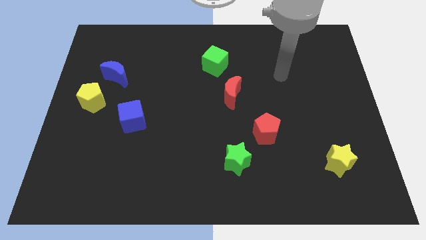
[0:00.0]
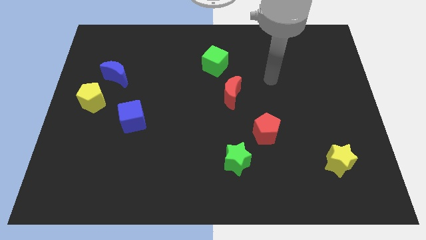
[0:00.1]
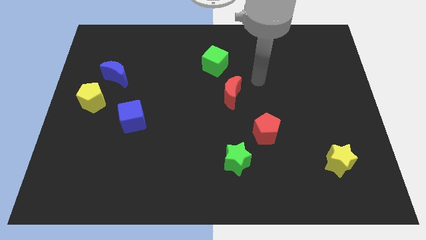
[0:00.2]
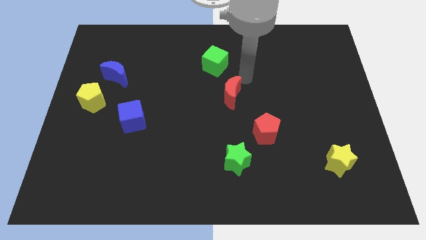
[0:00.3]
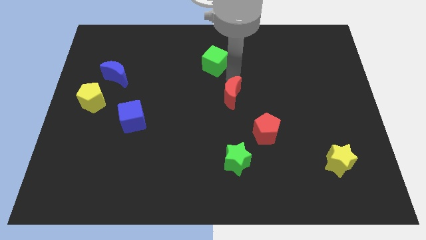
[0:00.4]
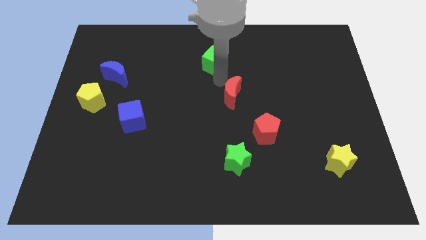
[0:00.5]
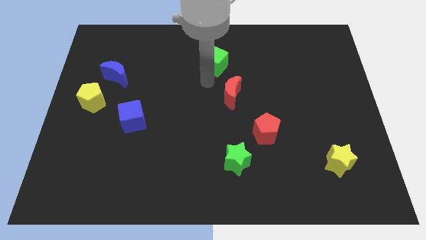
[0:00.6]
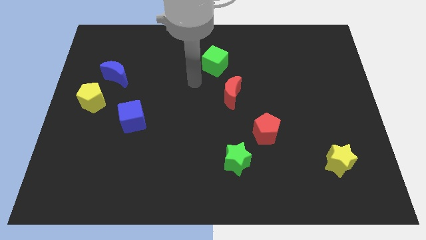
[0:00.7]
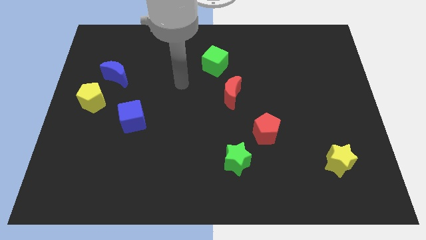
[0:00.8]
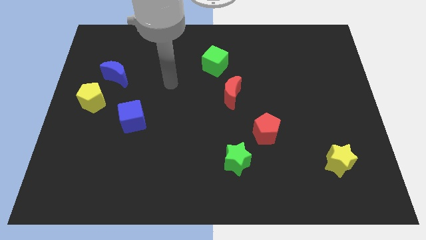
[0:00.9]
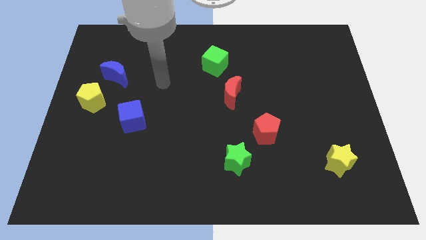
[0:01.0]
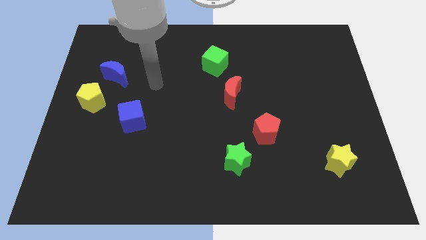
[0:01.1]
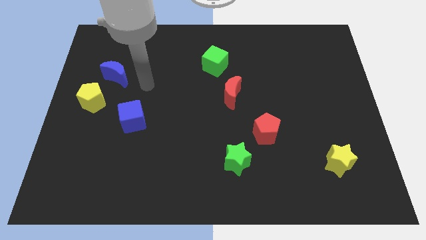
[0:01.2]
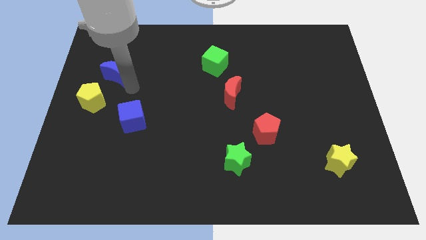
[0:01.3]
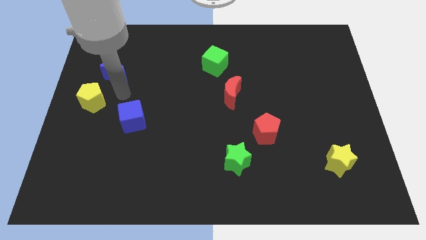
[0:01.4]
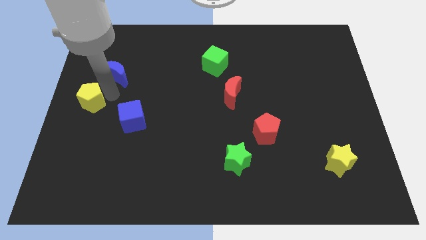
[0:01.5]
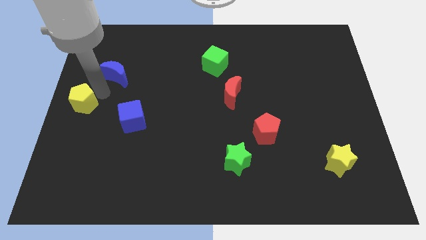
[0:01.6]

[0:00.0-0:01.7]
separate the blue moon from the yellow pentagon

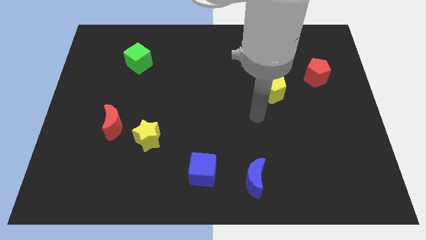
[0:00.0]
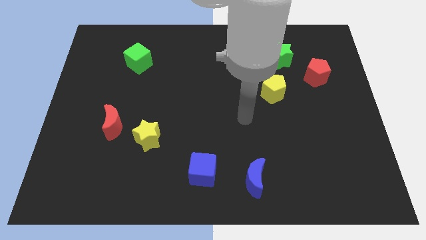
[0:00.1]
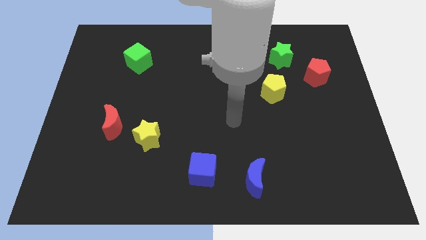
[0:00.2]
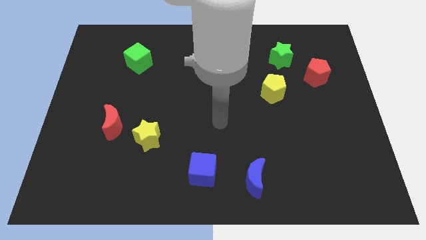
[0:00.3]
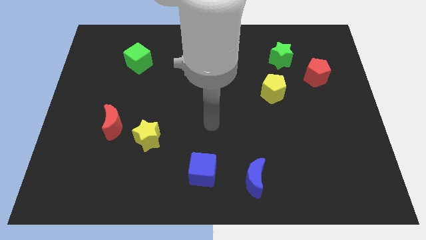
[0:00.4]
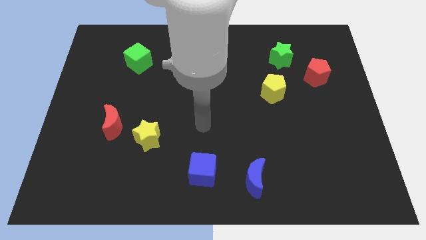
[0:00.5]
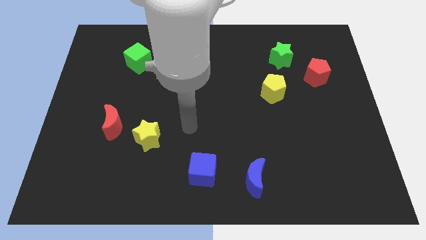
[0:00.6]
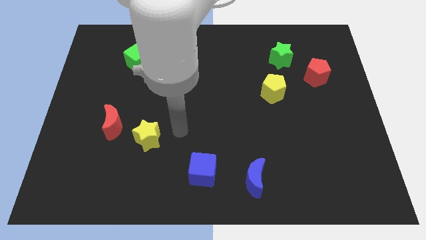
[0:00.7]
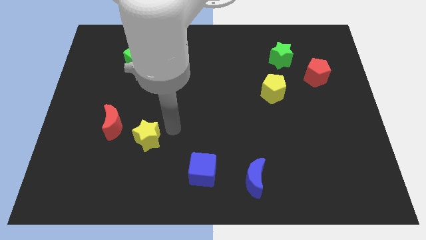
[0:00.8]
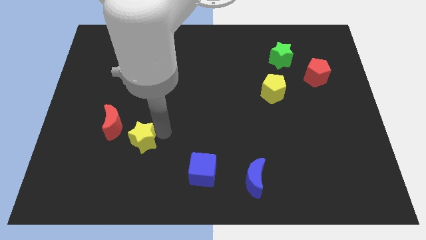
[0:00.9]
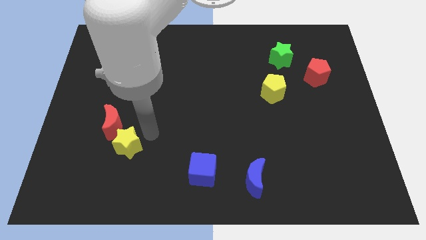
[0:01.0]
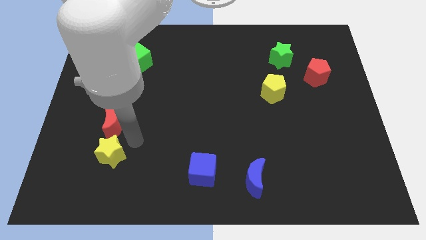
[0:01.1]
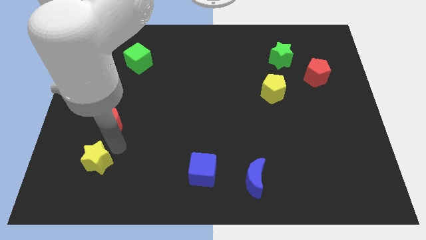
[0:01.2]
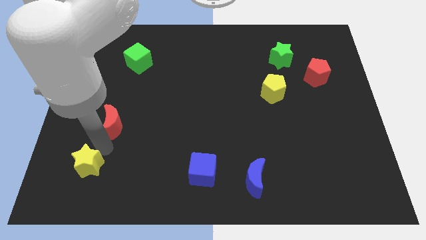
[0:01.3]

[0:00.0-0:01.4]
pull the red moon apart from the yellow star

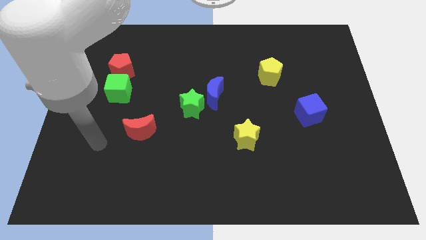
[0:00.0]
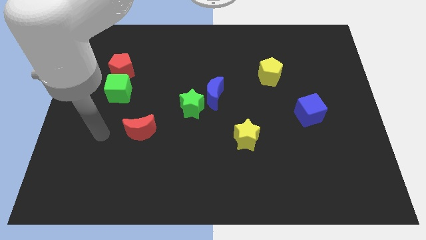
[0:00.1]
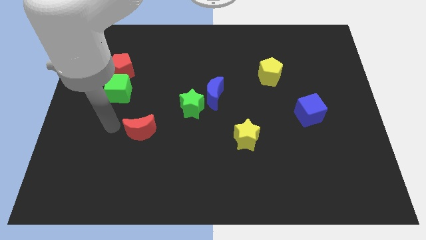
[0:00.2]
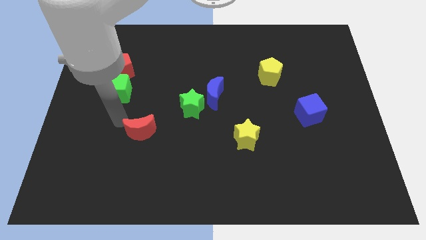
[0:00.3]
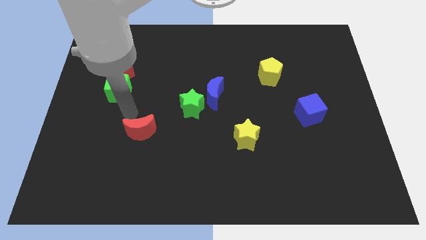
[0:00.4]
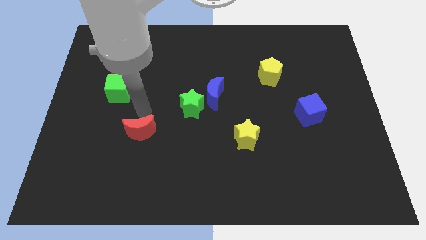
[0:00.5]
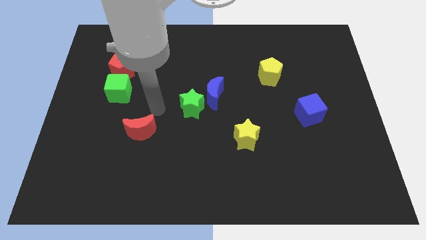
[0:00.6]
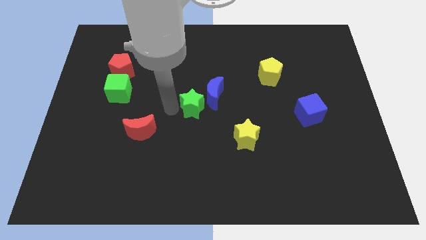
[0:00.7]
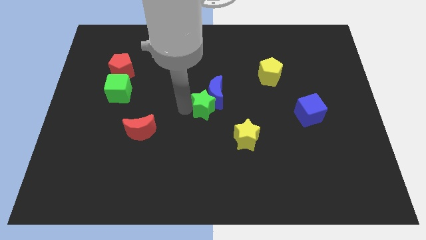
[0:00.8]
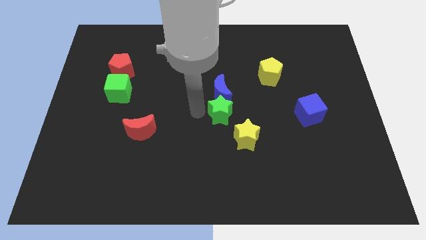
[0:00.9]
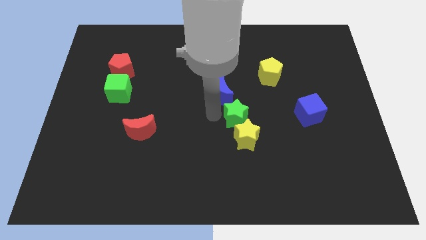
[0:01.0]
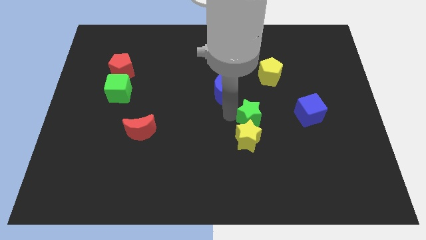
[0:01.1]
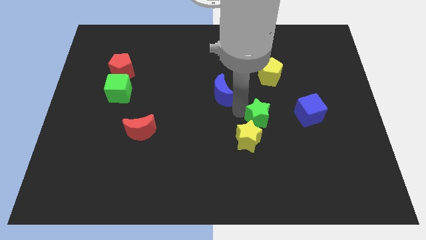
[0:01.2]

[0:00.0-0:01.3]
pull the blue moon apart from the green star

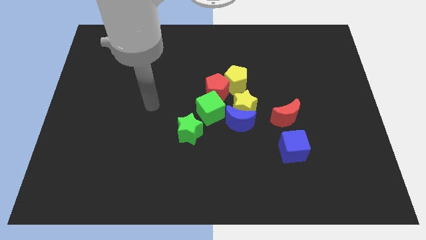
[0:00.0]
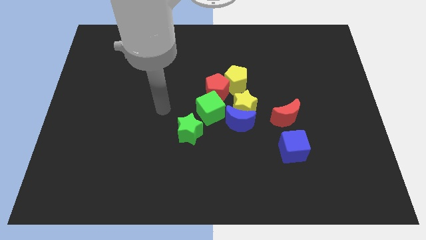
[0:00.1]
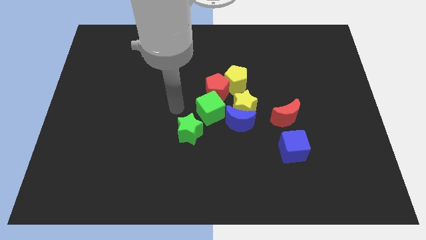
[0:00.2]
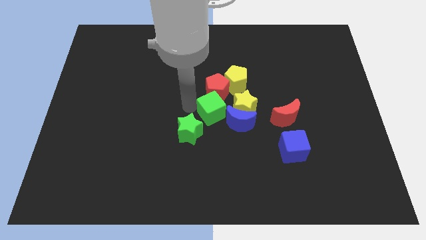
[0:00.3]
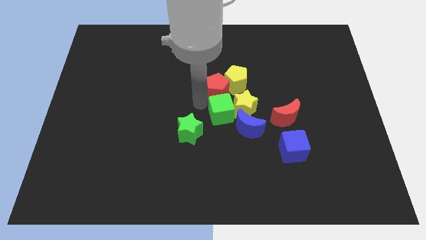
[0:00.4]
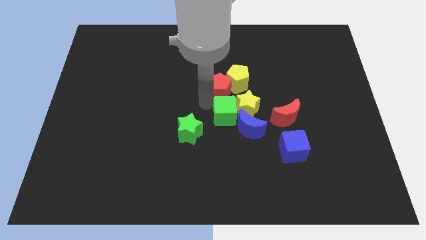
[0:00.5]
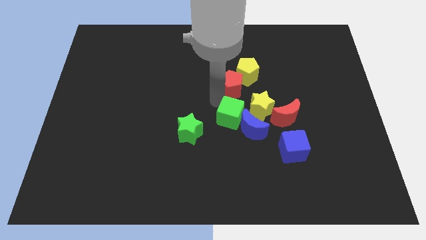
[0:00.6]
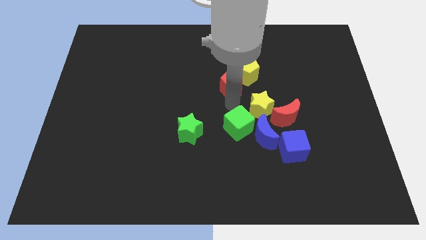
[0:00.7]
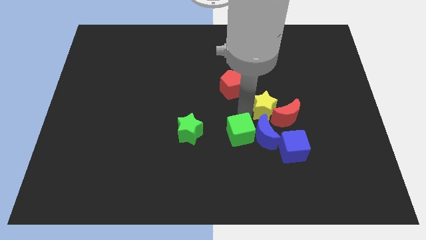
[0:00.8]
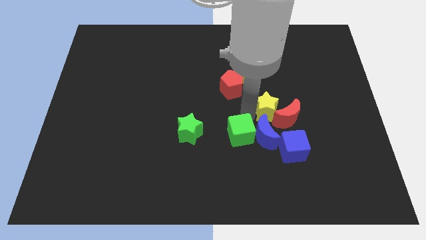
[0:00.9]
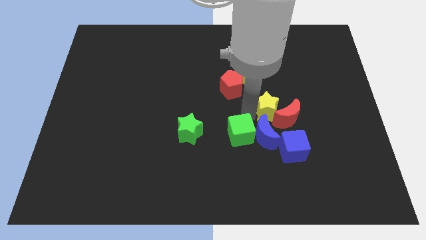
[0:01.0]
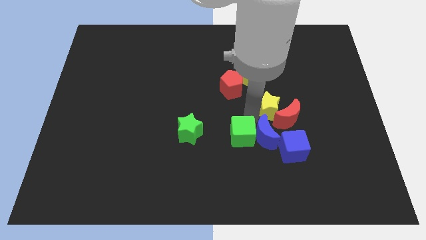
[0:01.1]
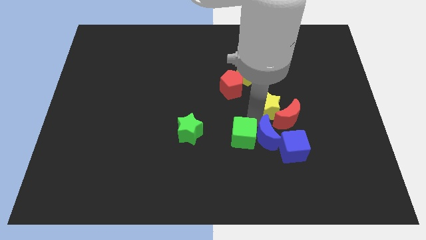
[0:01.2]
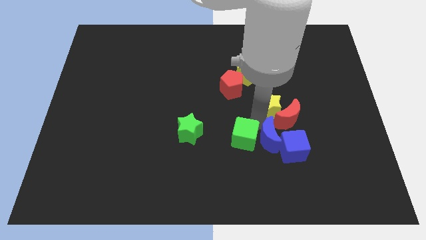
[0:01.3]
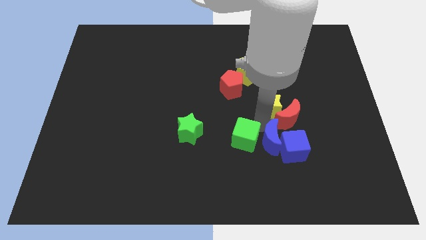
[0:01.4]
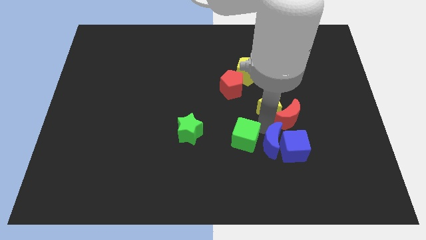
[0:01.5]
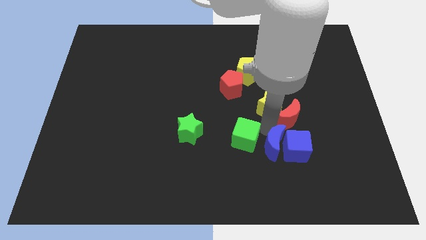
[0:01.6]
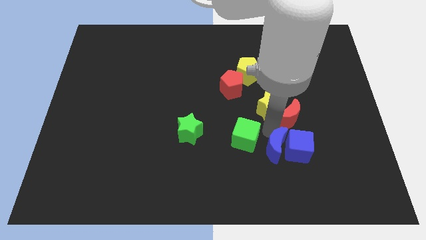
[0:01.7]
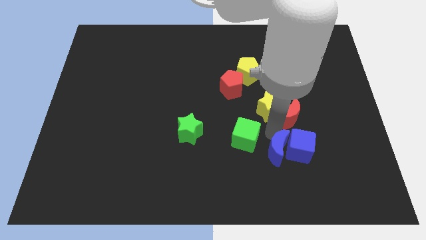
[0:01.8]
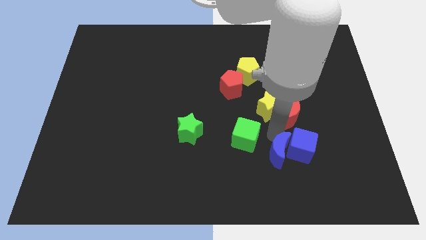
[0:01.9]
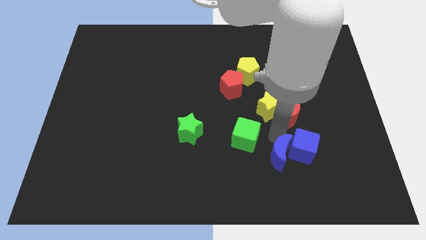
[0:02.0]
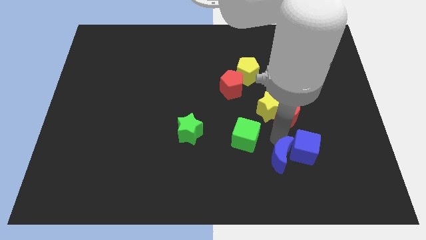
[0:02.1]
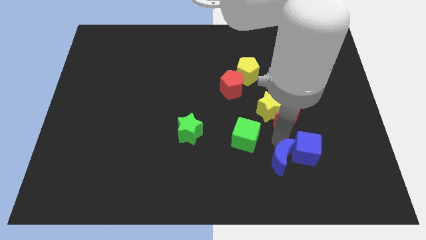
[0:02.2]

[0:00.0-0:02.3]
move the blue moon away from the yellow star and green cube

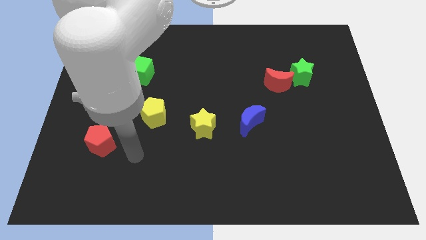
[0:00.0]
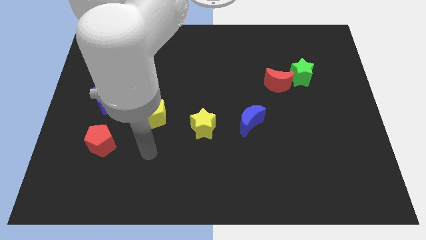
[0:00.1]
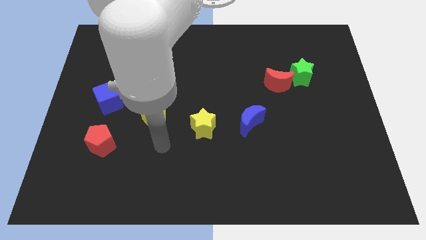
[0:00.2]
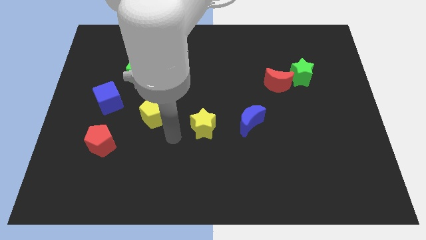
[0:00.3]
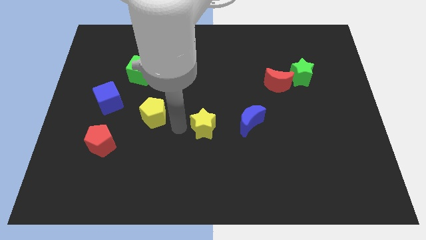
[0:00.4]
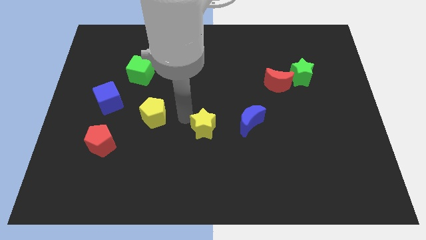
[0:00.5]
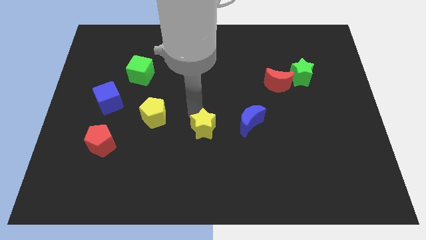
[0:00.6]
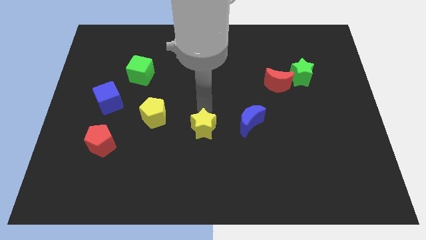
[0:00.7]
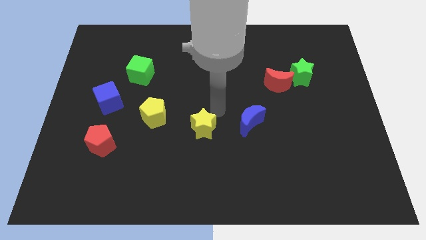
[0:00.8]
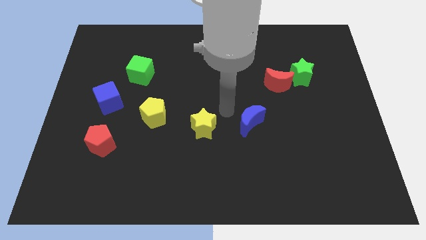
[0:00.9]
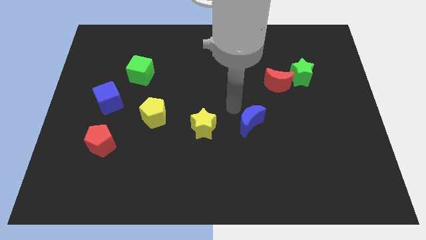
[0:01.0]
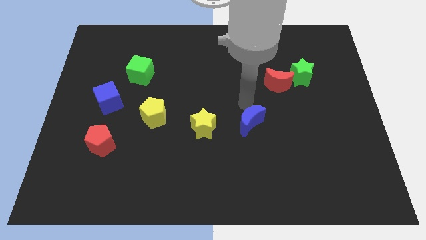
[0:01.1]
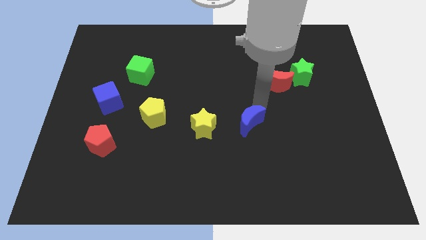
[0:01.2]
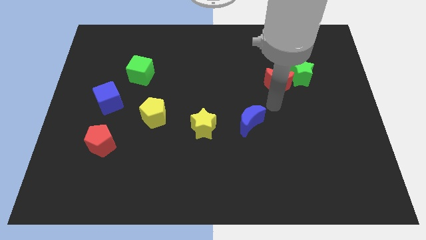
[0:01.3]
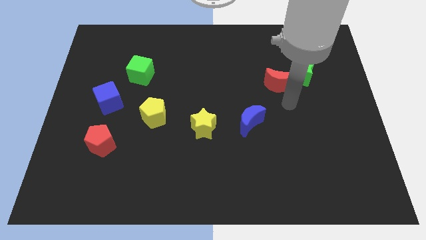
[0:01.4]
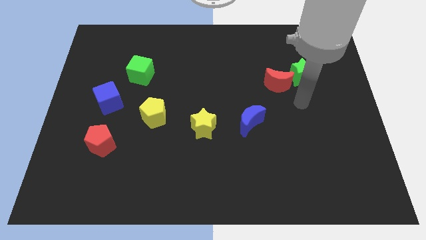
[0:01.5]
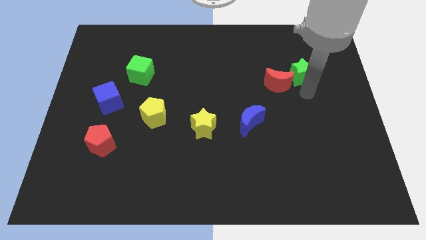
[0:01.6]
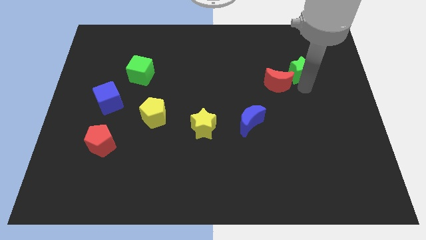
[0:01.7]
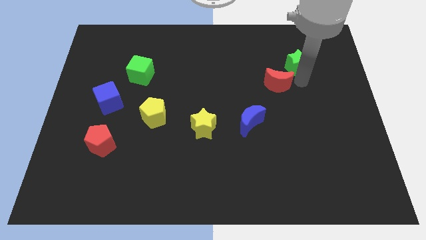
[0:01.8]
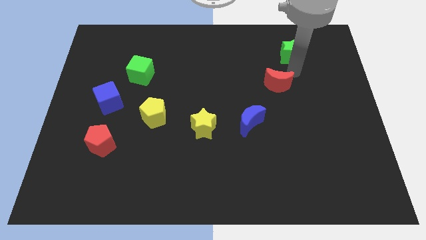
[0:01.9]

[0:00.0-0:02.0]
move the red moon away from the green star

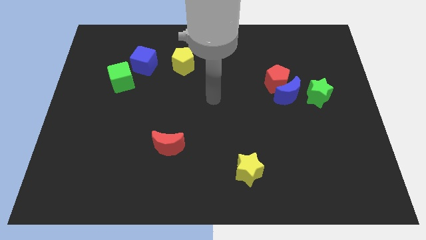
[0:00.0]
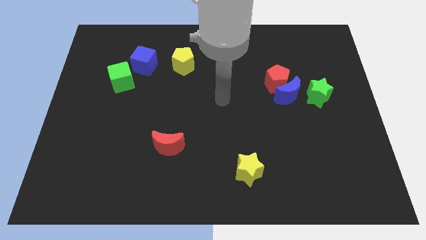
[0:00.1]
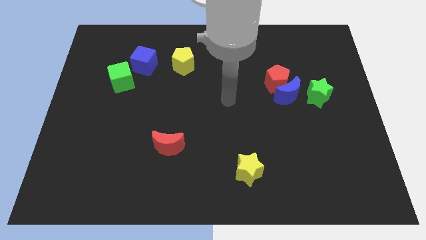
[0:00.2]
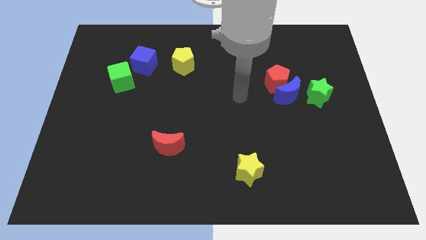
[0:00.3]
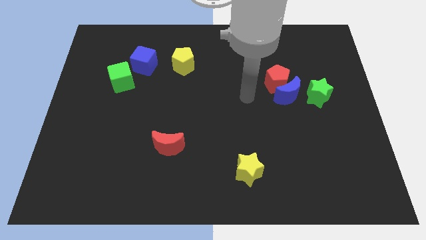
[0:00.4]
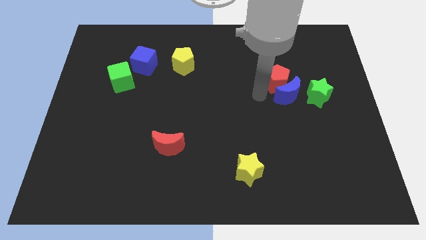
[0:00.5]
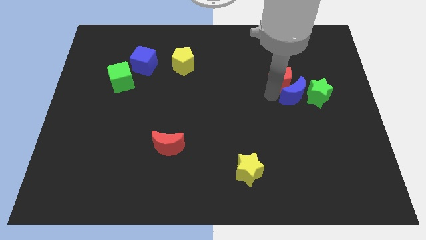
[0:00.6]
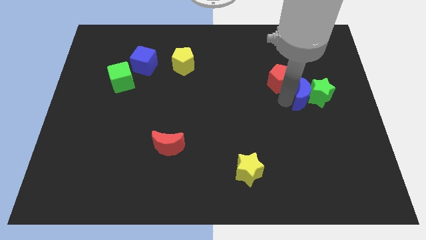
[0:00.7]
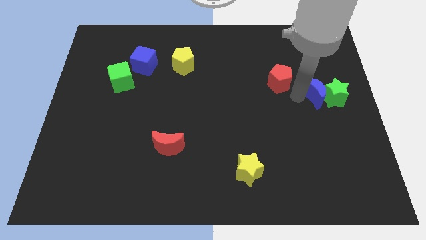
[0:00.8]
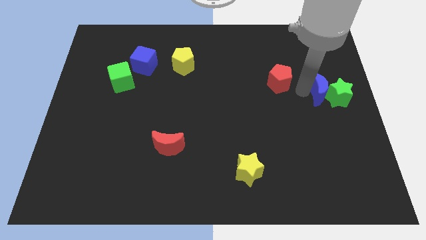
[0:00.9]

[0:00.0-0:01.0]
separate the red pentagon from the blue moon
